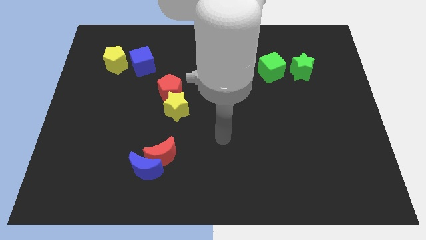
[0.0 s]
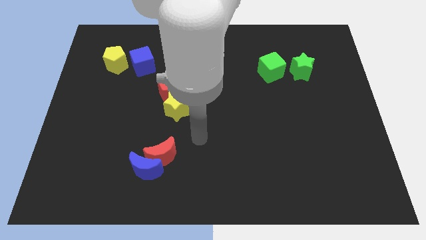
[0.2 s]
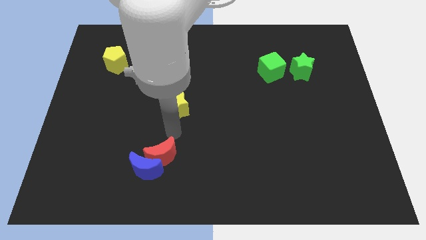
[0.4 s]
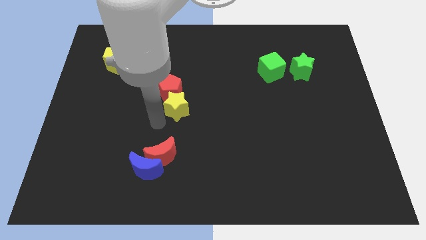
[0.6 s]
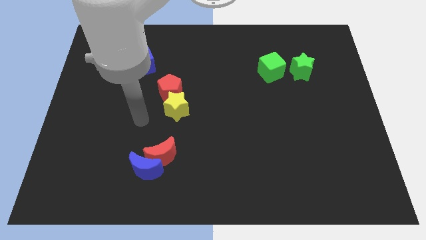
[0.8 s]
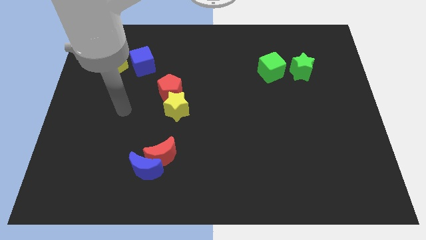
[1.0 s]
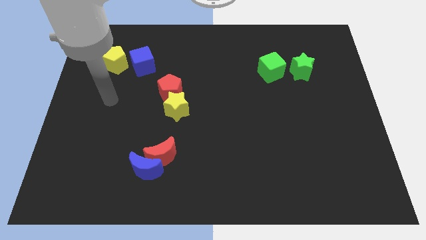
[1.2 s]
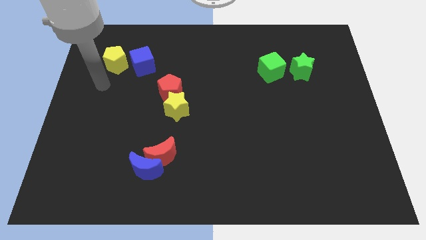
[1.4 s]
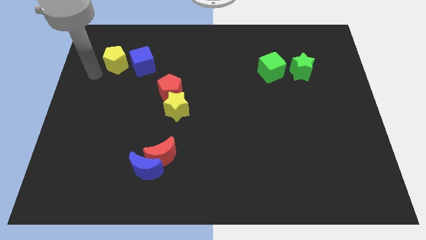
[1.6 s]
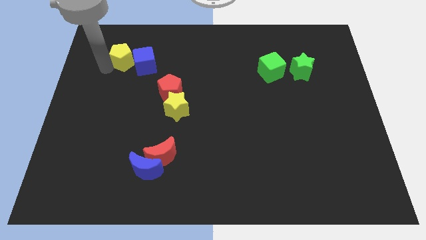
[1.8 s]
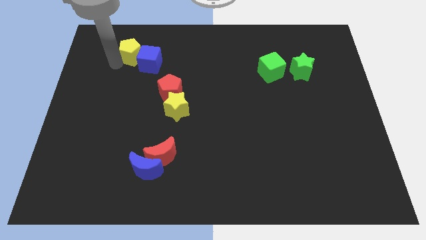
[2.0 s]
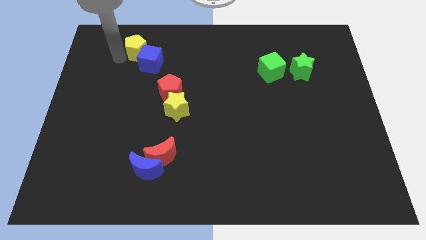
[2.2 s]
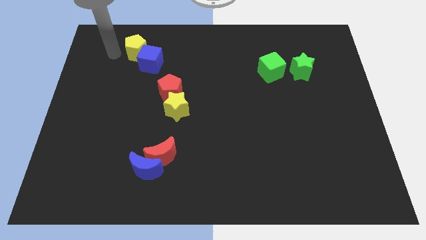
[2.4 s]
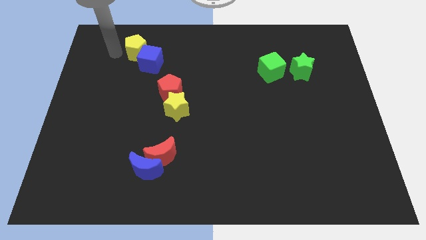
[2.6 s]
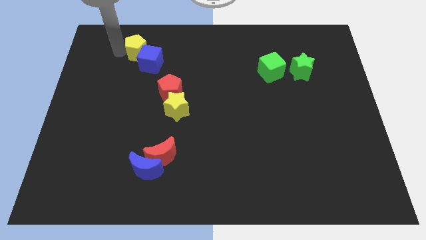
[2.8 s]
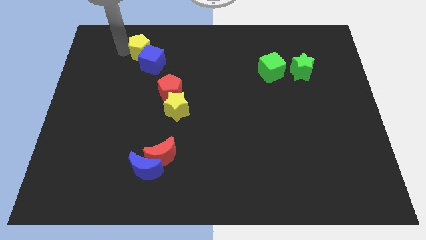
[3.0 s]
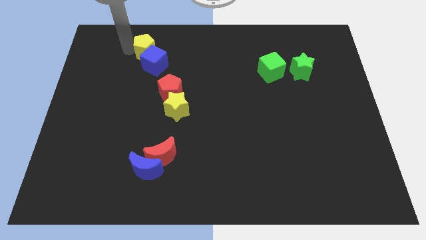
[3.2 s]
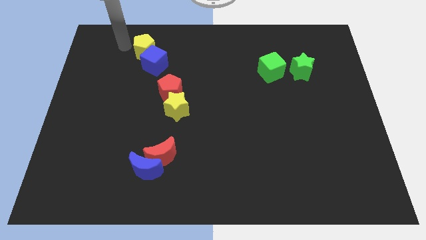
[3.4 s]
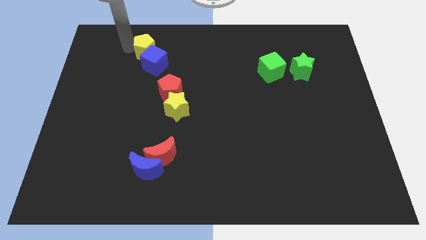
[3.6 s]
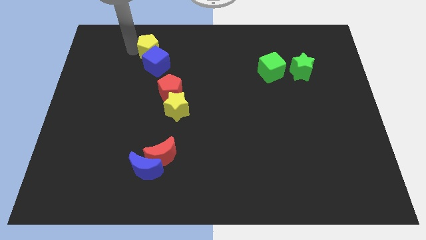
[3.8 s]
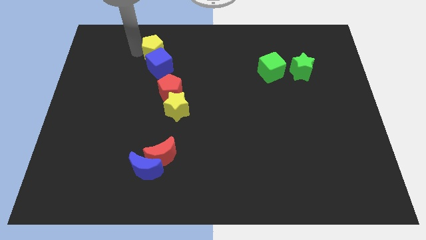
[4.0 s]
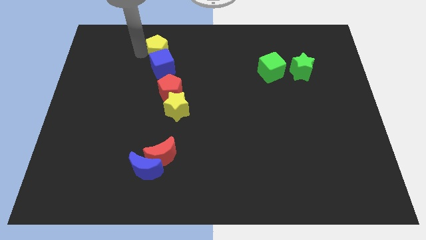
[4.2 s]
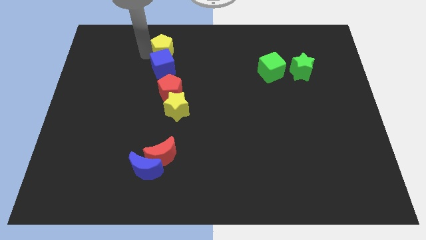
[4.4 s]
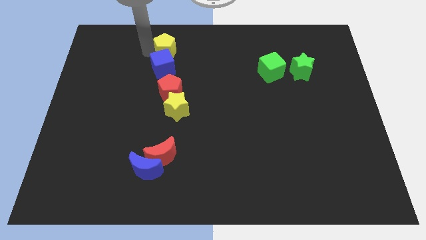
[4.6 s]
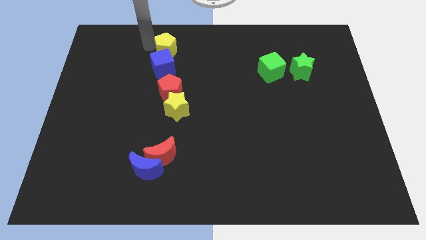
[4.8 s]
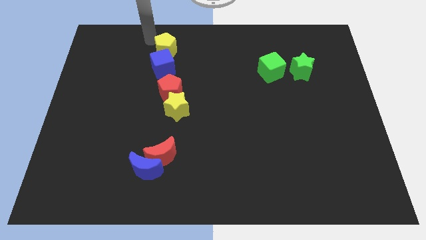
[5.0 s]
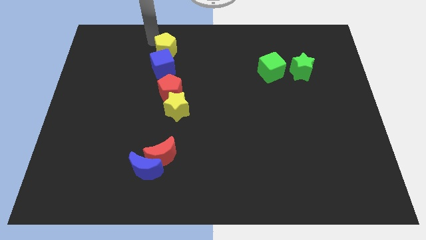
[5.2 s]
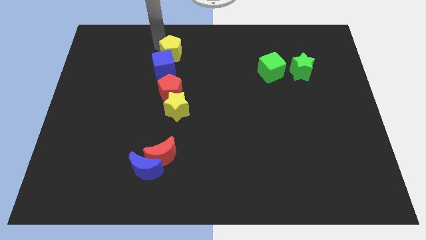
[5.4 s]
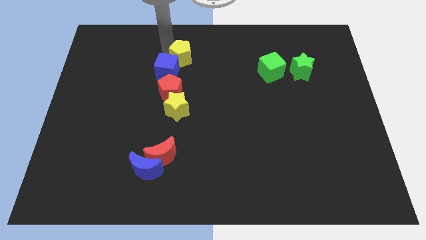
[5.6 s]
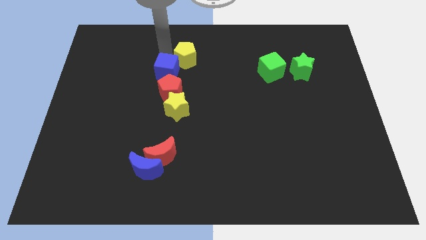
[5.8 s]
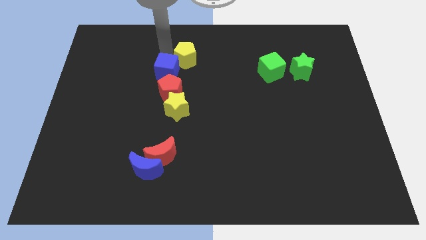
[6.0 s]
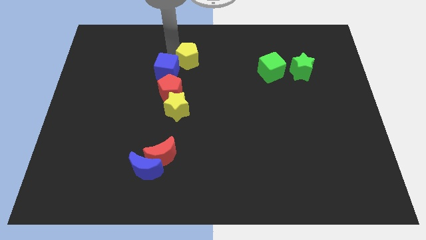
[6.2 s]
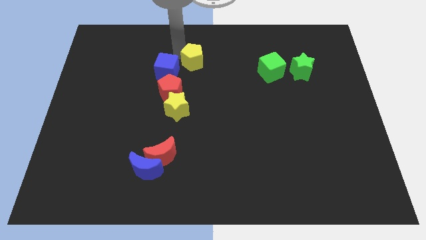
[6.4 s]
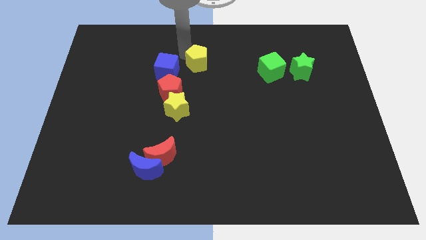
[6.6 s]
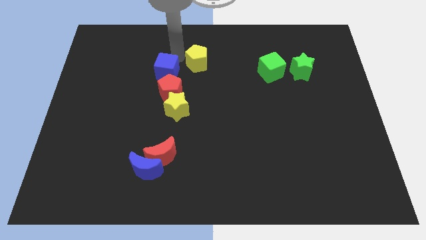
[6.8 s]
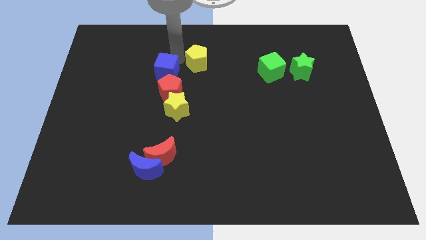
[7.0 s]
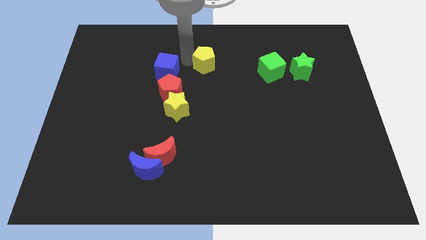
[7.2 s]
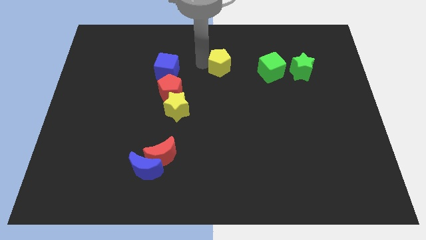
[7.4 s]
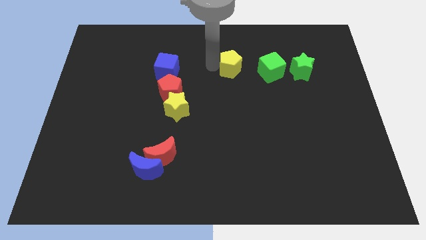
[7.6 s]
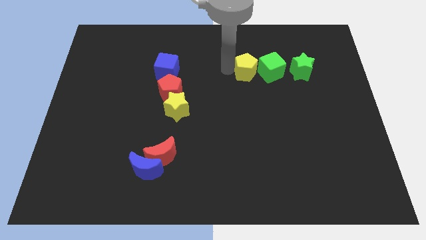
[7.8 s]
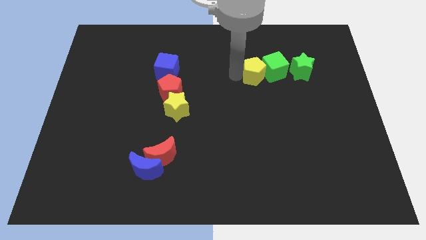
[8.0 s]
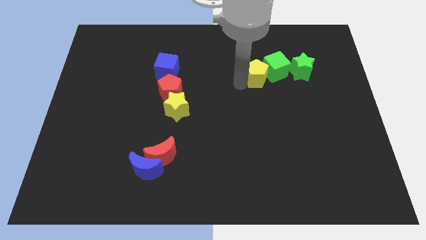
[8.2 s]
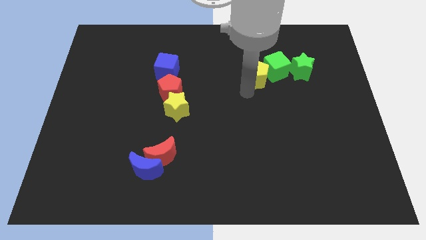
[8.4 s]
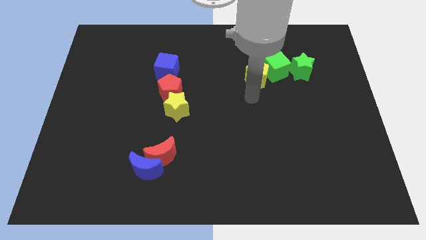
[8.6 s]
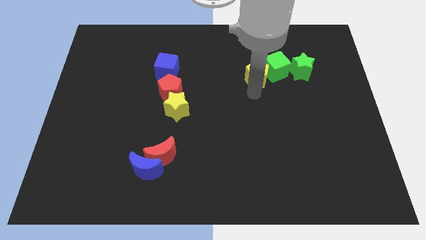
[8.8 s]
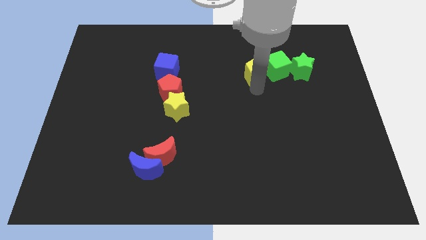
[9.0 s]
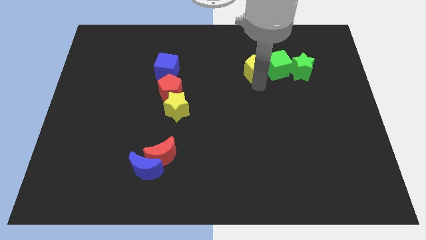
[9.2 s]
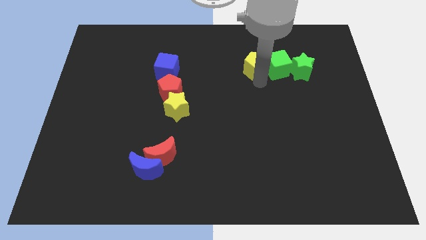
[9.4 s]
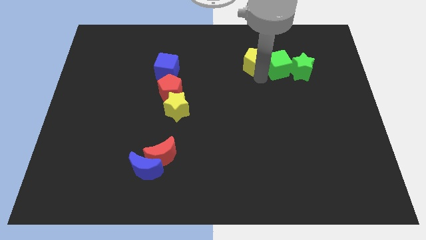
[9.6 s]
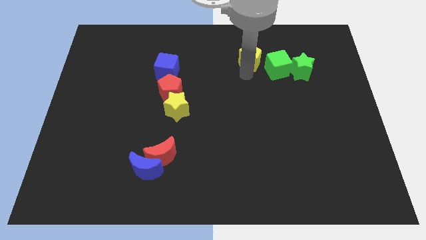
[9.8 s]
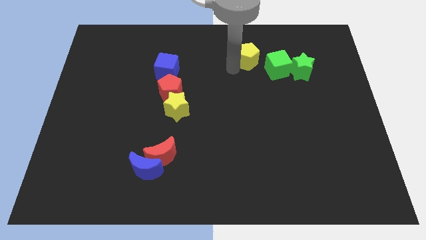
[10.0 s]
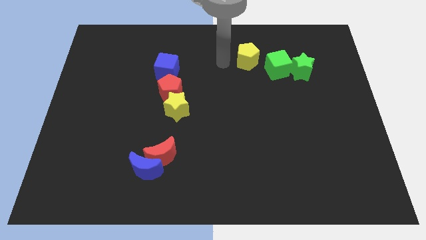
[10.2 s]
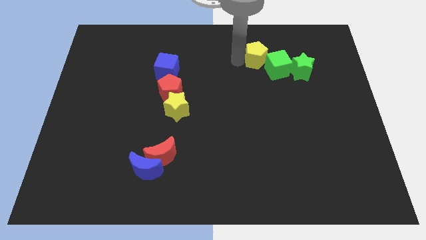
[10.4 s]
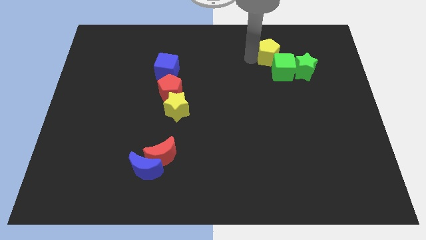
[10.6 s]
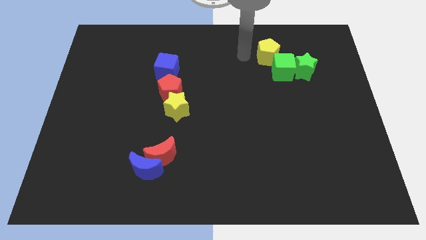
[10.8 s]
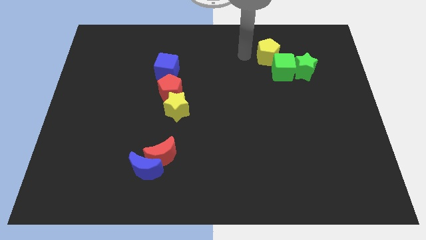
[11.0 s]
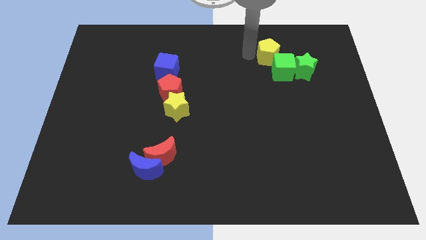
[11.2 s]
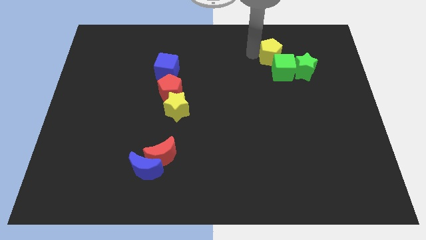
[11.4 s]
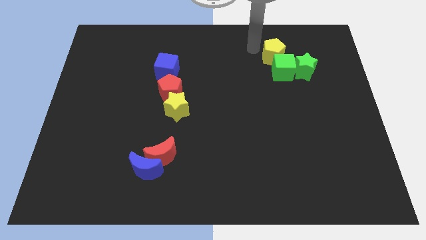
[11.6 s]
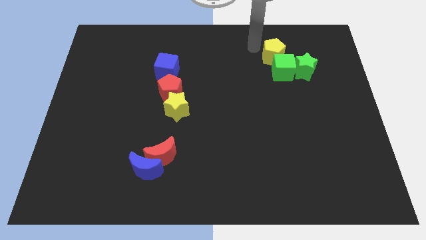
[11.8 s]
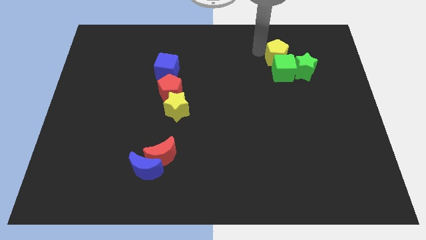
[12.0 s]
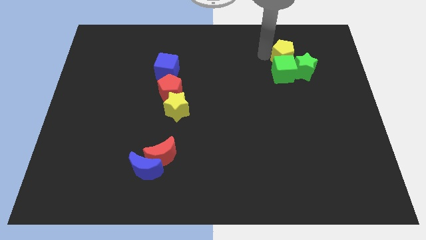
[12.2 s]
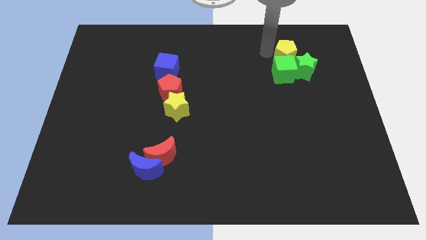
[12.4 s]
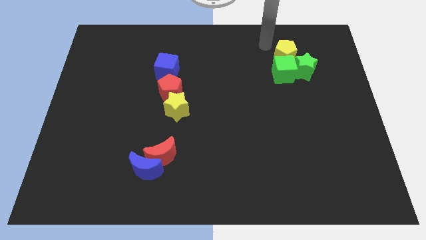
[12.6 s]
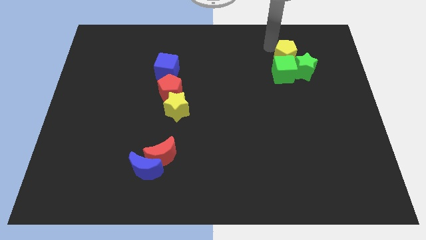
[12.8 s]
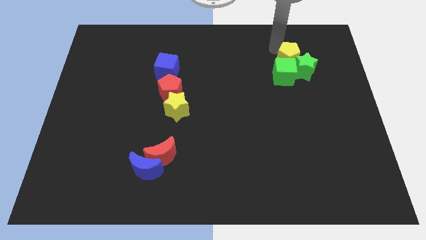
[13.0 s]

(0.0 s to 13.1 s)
move the yellow pentagon to the green star

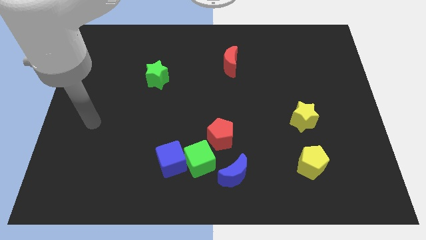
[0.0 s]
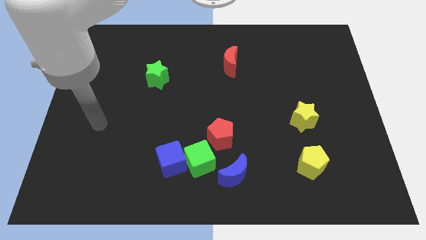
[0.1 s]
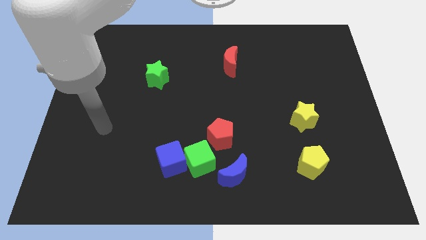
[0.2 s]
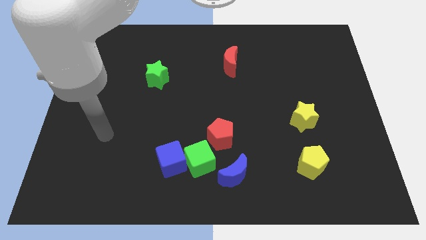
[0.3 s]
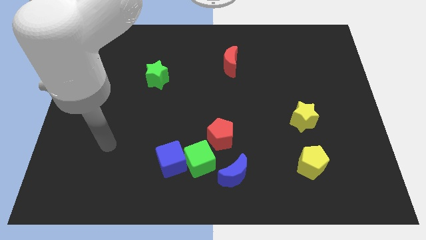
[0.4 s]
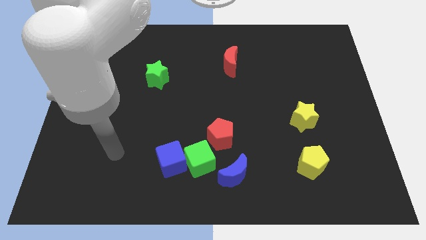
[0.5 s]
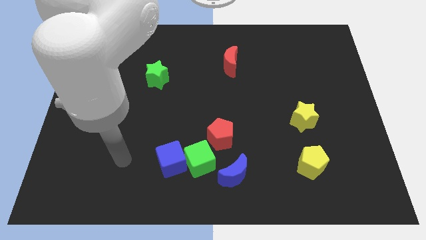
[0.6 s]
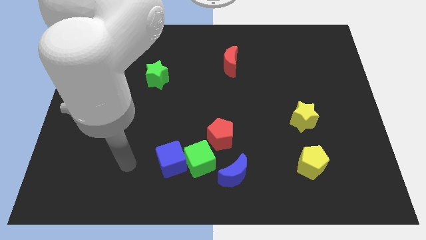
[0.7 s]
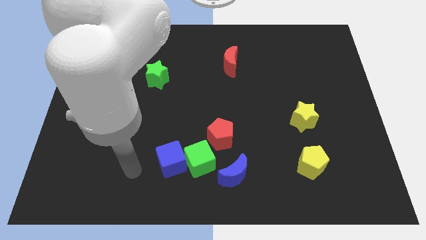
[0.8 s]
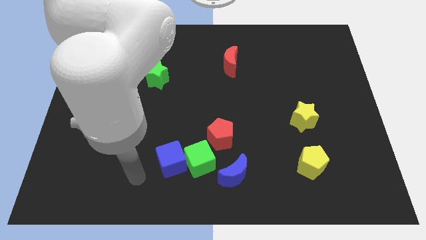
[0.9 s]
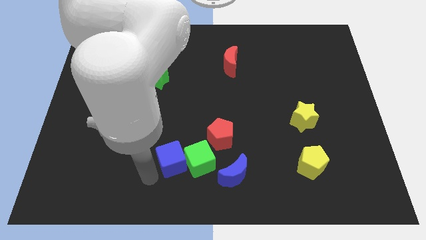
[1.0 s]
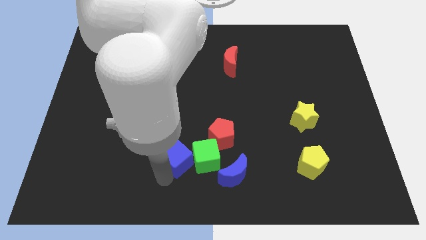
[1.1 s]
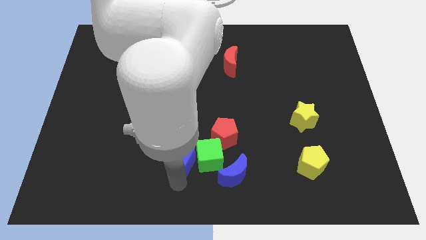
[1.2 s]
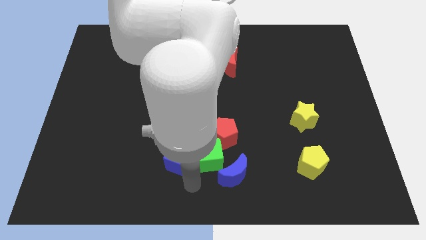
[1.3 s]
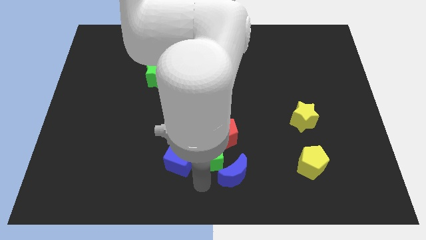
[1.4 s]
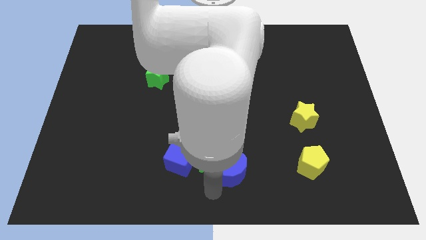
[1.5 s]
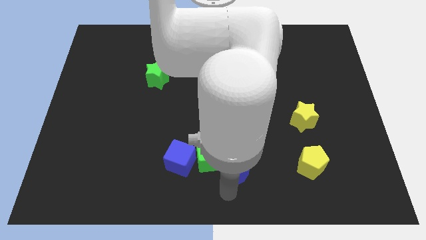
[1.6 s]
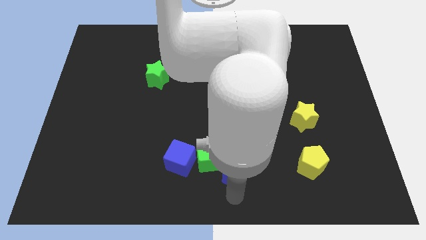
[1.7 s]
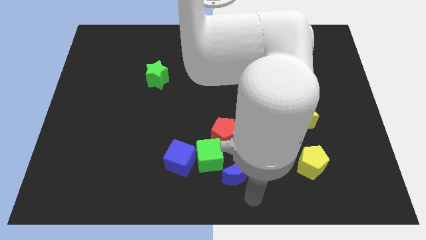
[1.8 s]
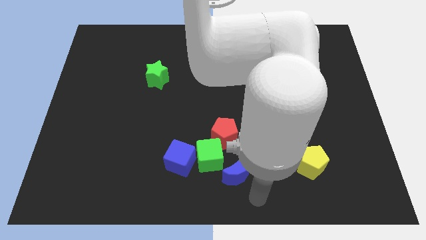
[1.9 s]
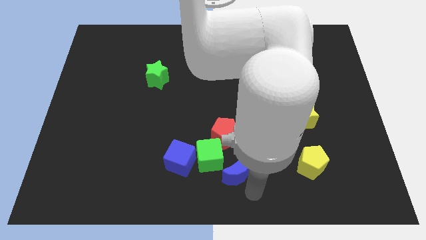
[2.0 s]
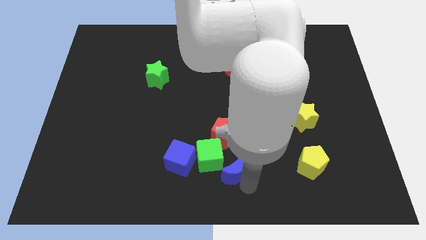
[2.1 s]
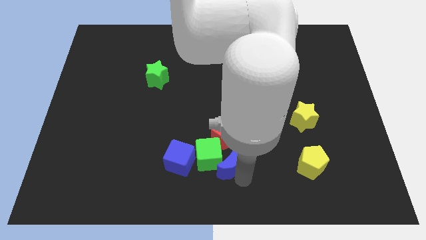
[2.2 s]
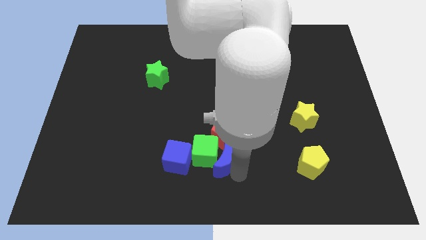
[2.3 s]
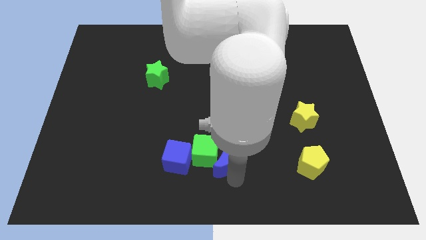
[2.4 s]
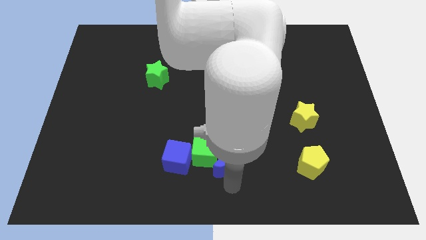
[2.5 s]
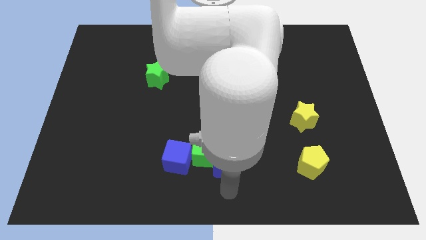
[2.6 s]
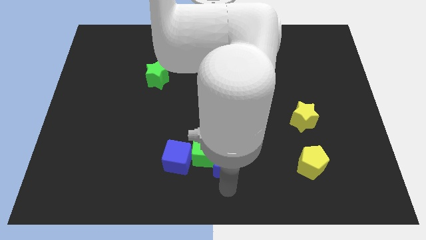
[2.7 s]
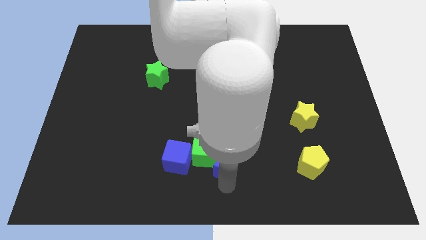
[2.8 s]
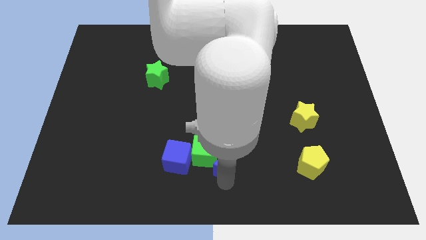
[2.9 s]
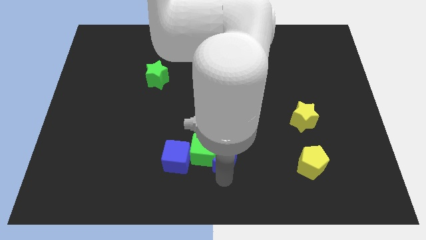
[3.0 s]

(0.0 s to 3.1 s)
push the blue moon close to the red pentagon
